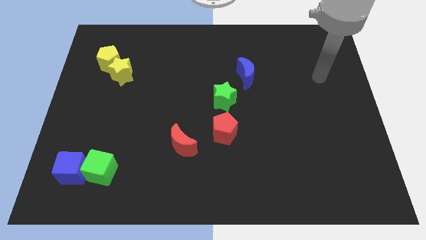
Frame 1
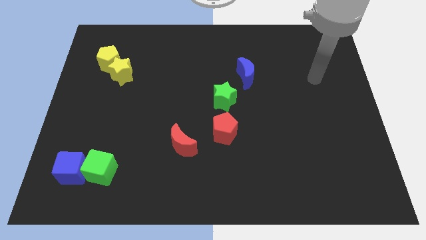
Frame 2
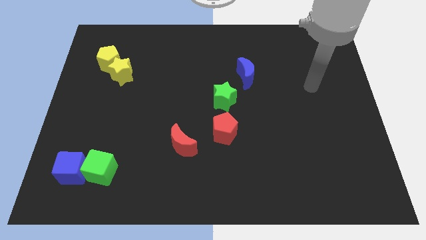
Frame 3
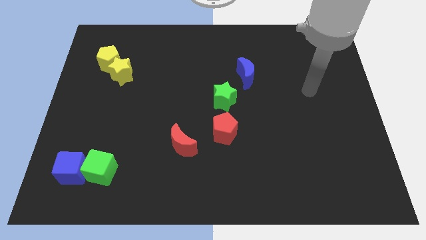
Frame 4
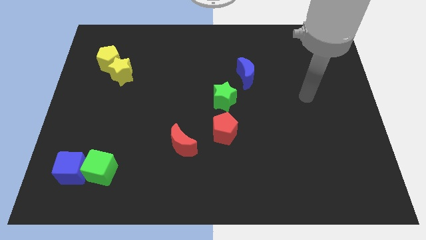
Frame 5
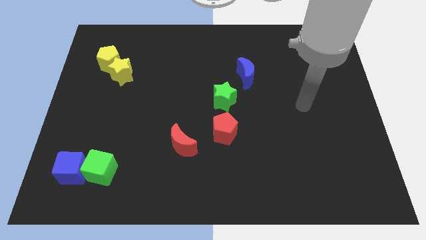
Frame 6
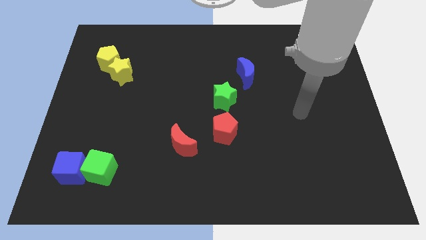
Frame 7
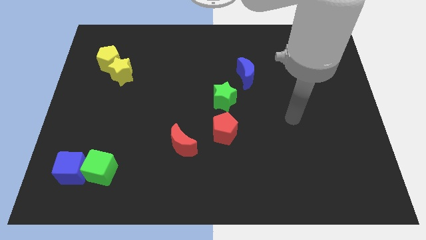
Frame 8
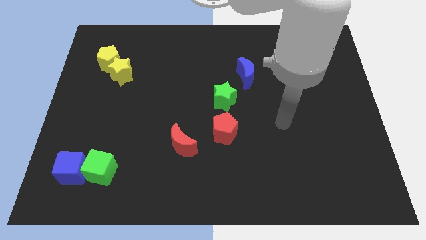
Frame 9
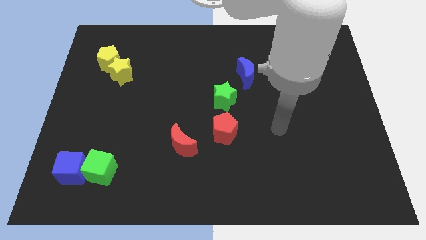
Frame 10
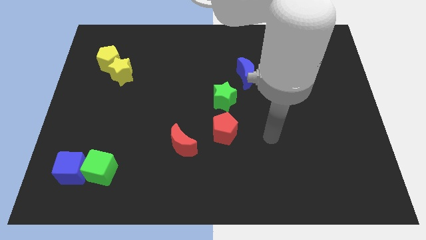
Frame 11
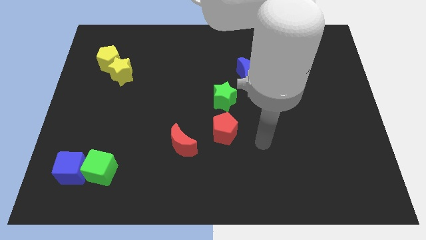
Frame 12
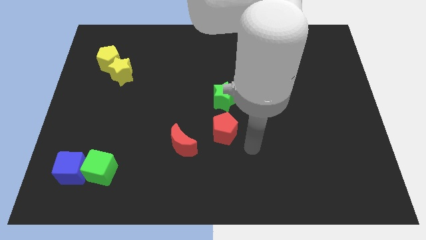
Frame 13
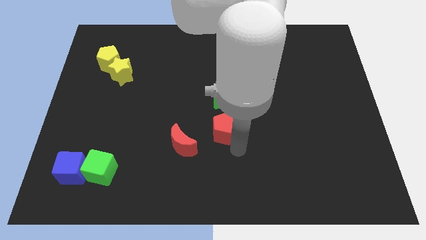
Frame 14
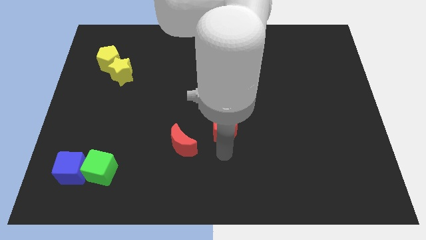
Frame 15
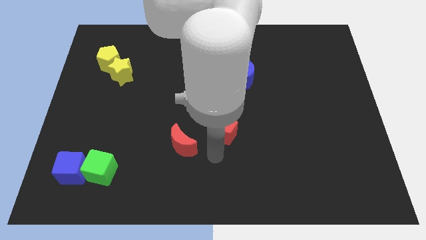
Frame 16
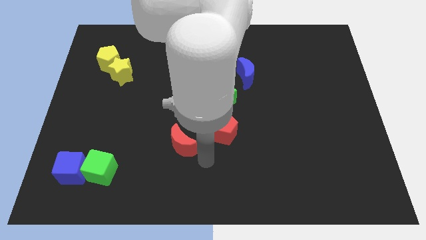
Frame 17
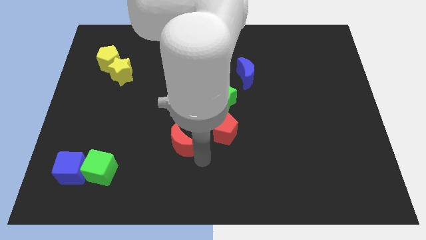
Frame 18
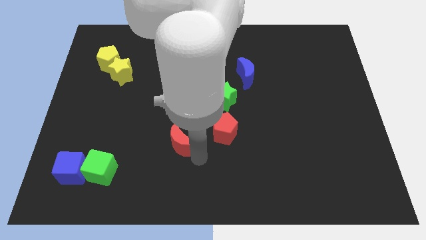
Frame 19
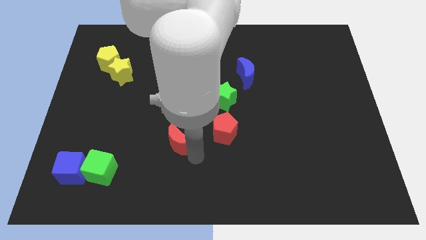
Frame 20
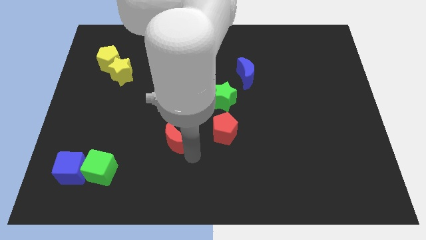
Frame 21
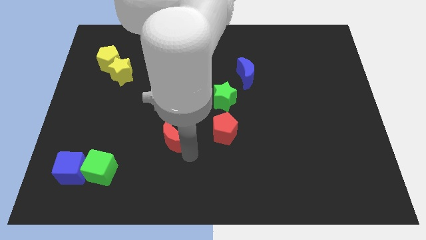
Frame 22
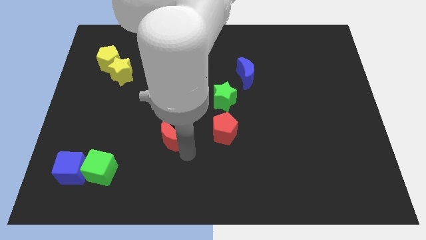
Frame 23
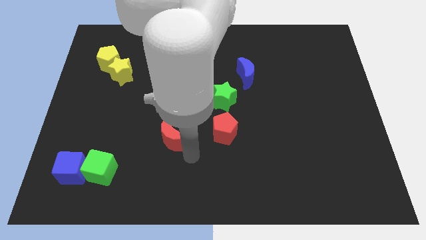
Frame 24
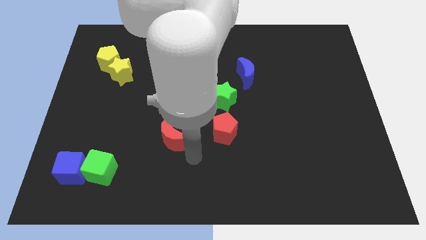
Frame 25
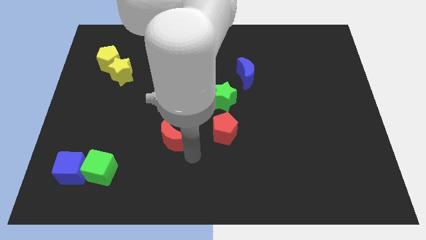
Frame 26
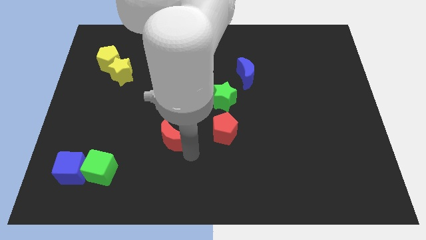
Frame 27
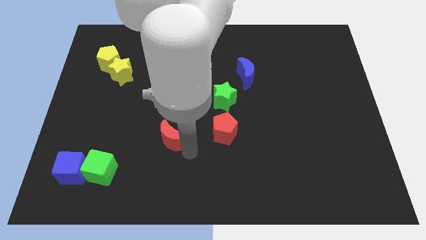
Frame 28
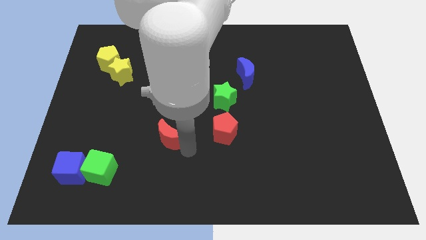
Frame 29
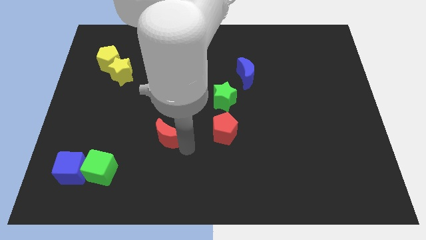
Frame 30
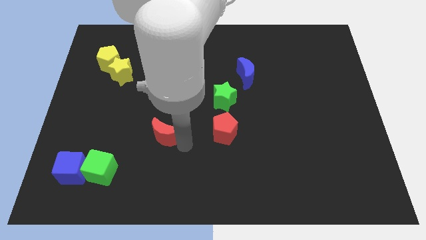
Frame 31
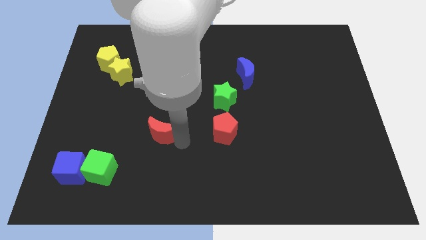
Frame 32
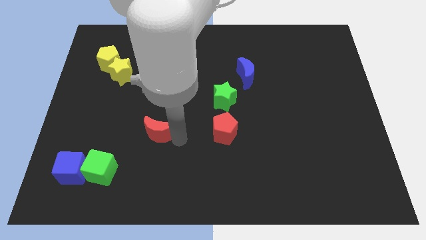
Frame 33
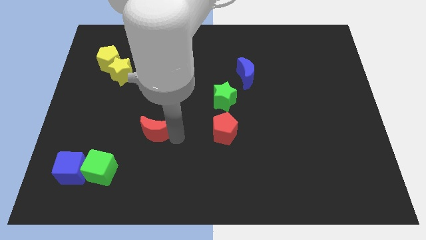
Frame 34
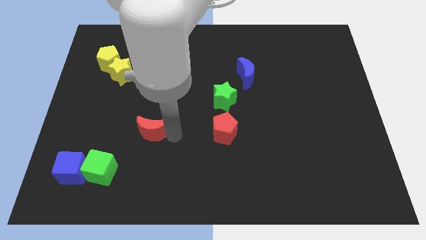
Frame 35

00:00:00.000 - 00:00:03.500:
slide the red moon upwards and left diagonally a little

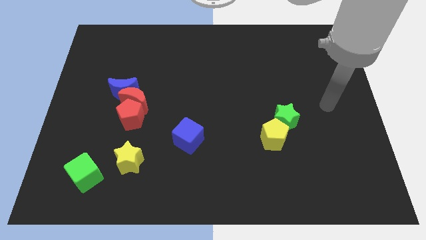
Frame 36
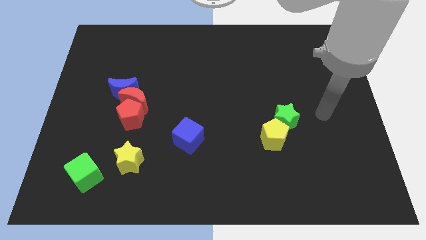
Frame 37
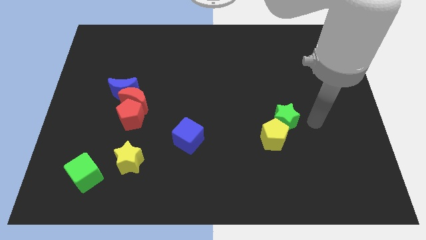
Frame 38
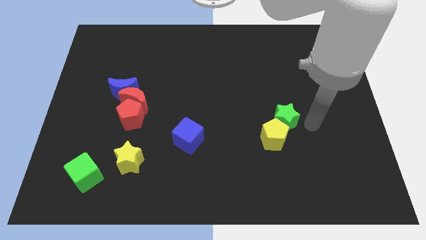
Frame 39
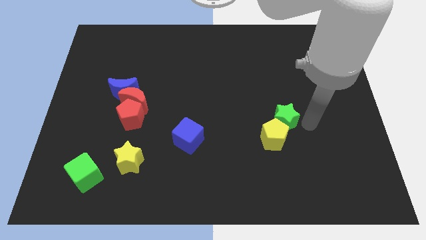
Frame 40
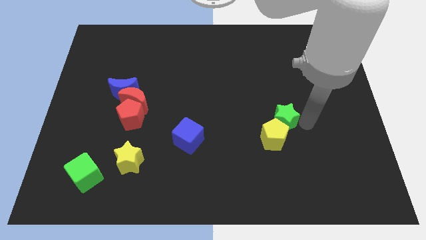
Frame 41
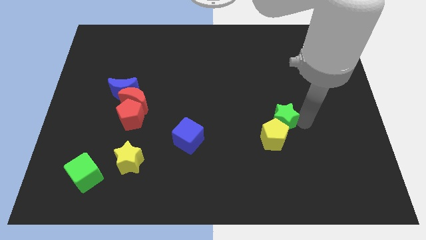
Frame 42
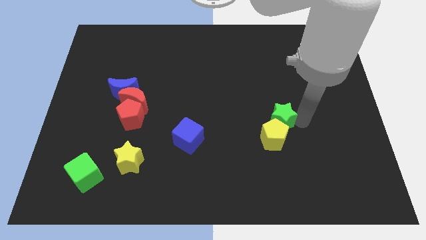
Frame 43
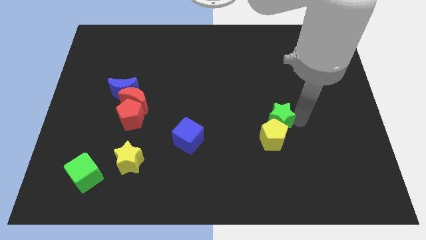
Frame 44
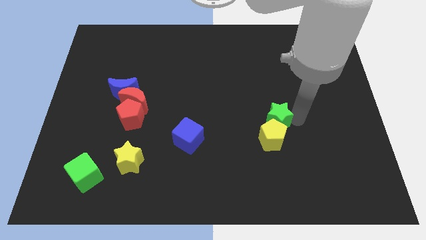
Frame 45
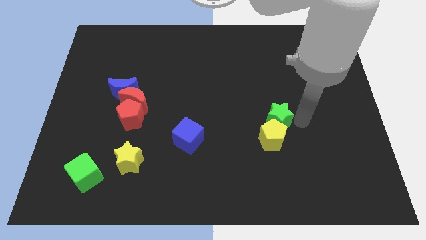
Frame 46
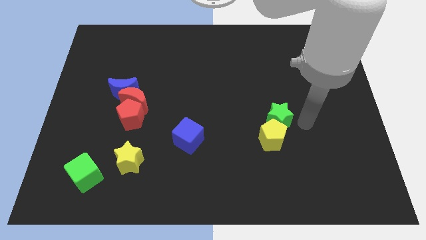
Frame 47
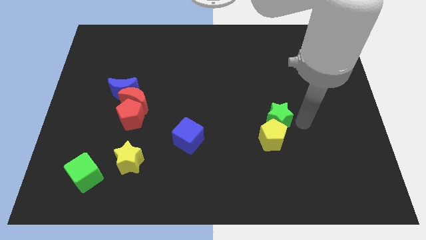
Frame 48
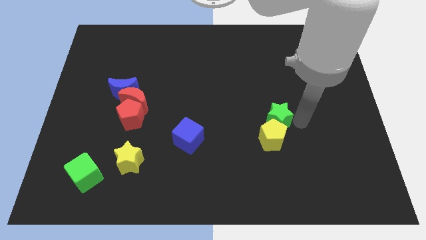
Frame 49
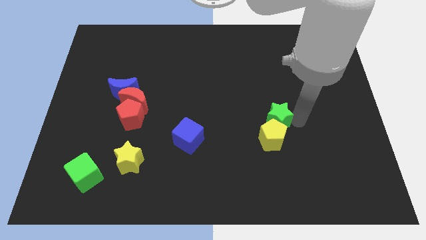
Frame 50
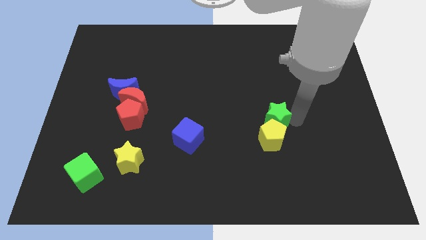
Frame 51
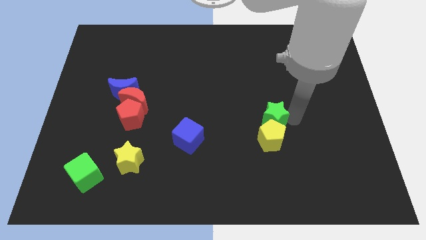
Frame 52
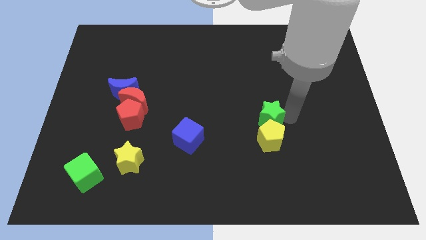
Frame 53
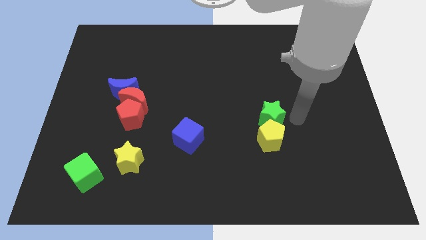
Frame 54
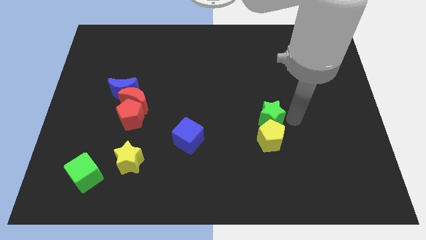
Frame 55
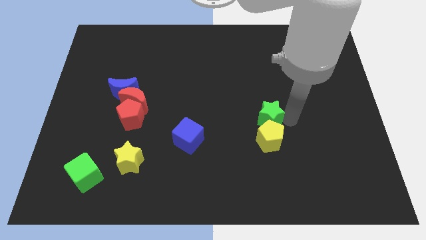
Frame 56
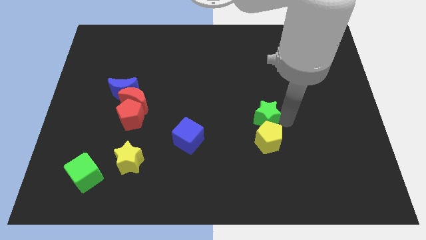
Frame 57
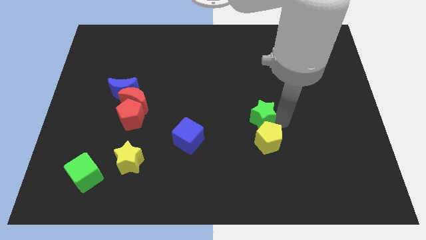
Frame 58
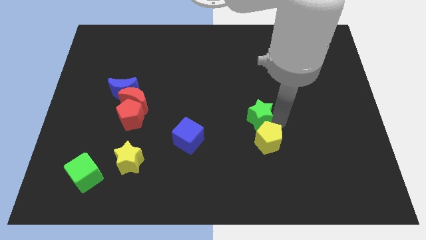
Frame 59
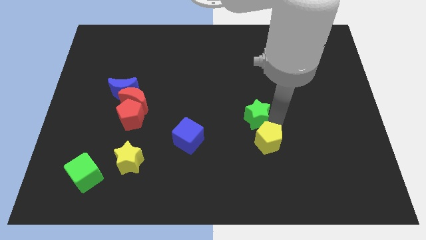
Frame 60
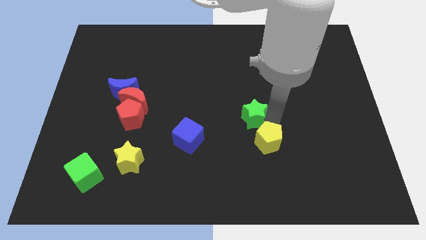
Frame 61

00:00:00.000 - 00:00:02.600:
push the green star somewhat left

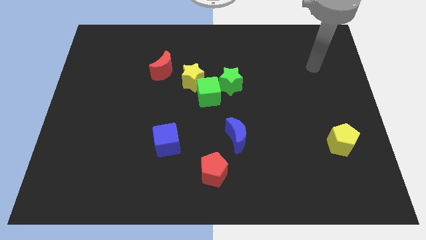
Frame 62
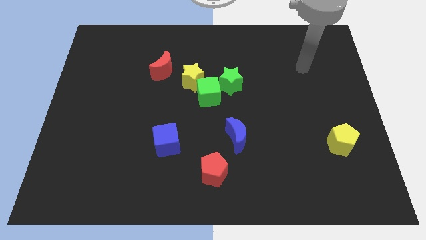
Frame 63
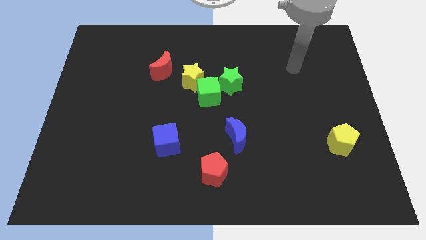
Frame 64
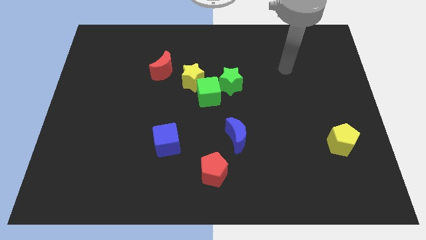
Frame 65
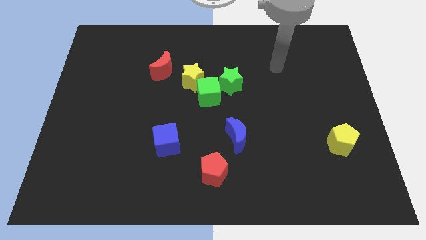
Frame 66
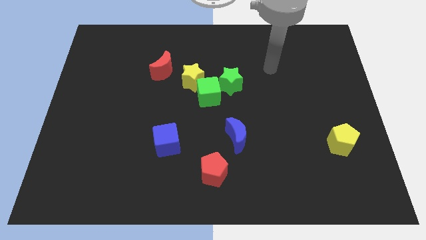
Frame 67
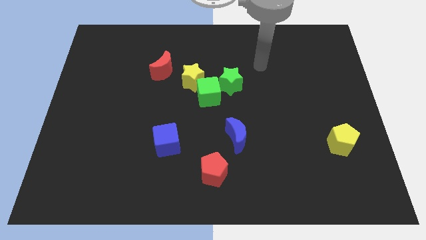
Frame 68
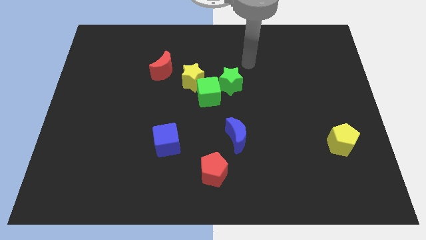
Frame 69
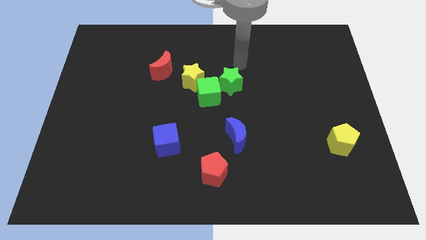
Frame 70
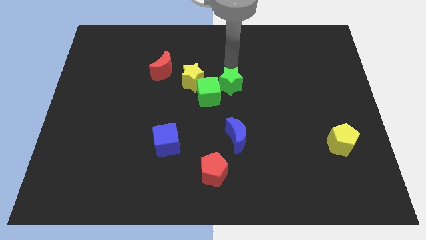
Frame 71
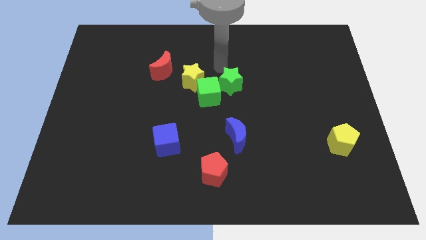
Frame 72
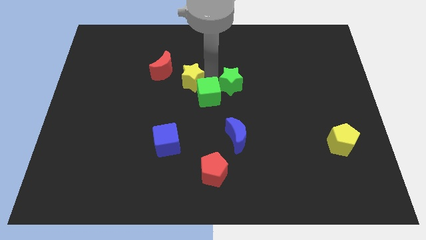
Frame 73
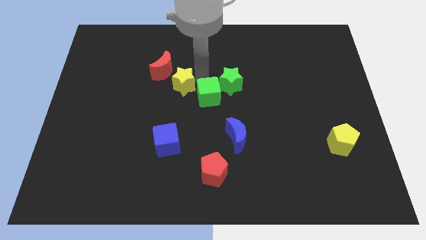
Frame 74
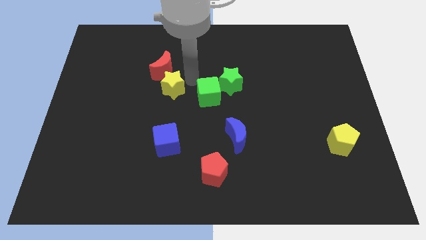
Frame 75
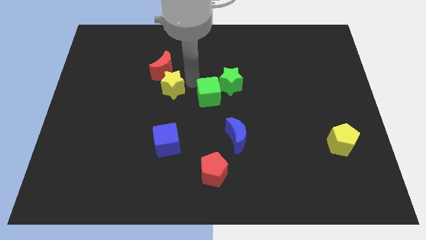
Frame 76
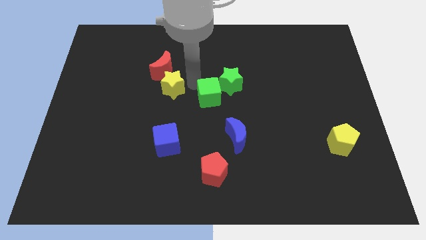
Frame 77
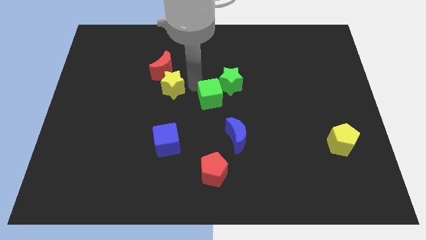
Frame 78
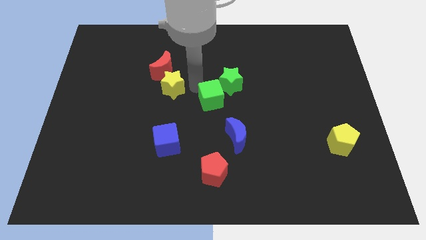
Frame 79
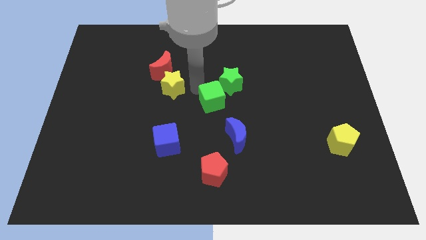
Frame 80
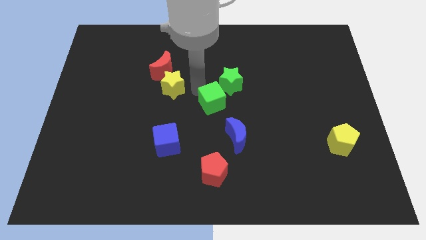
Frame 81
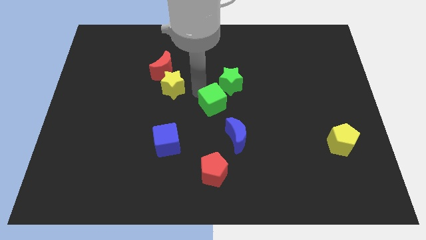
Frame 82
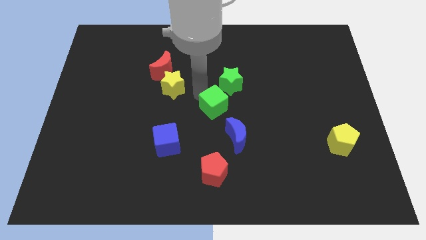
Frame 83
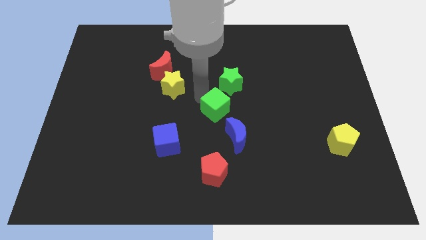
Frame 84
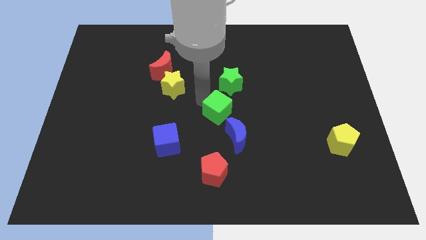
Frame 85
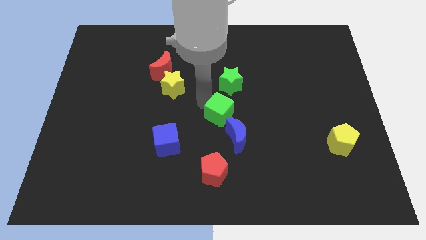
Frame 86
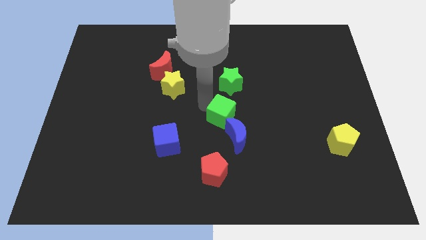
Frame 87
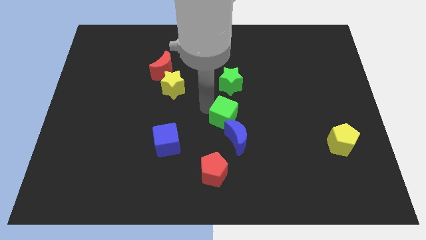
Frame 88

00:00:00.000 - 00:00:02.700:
slightly move the green cube diagonally downwards and to the right
